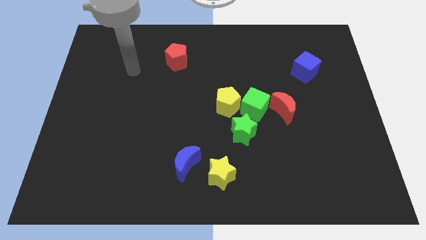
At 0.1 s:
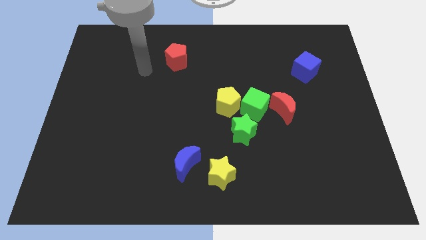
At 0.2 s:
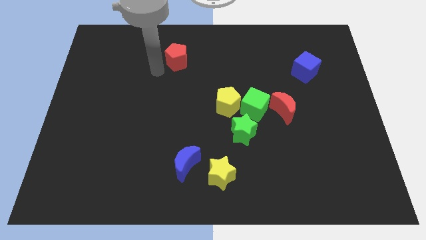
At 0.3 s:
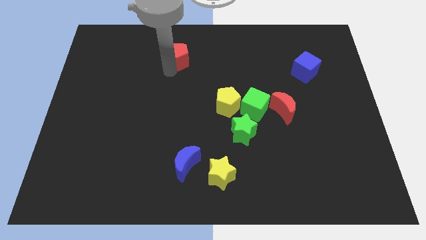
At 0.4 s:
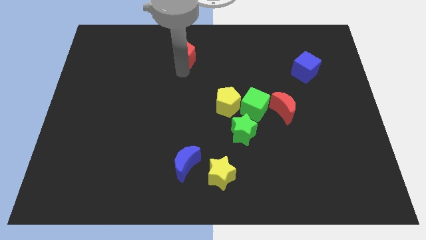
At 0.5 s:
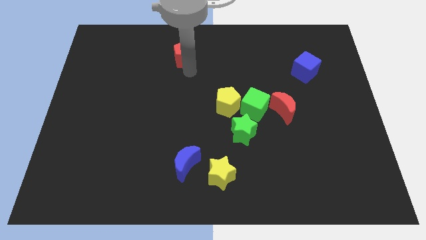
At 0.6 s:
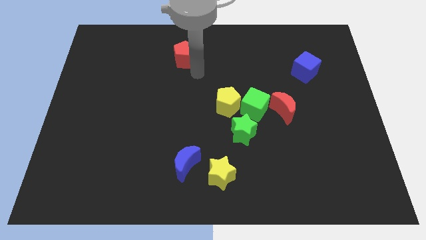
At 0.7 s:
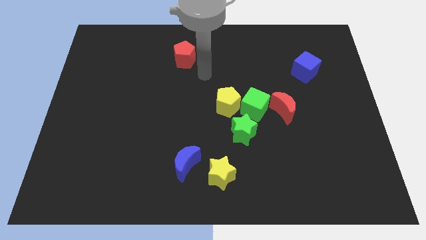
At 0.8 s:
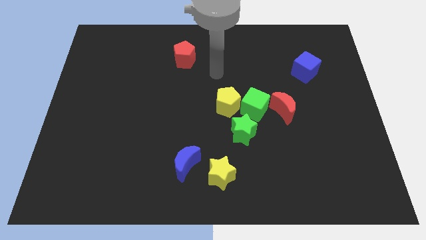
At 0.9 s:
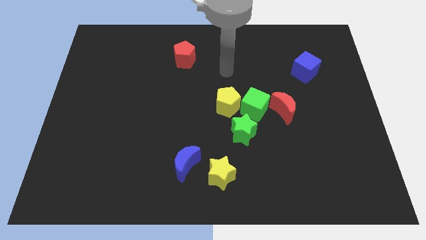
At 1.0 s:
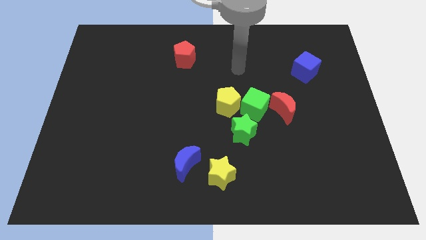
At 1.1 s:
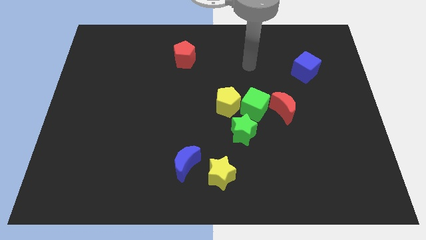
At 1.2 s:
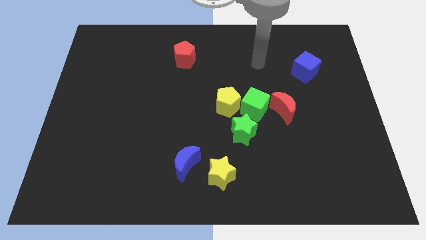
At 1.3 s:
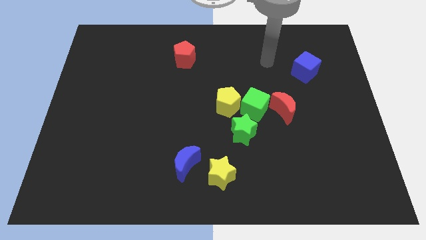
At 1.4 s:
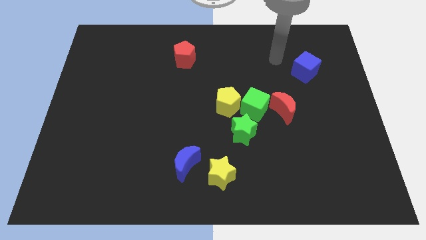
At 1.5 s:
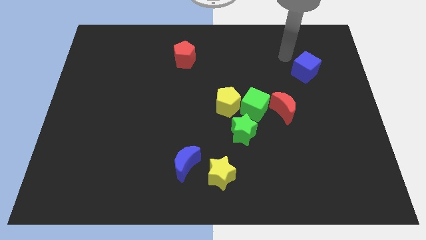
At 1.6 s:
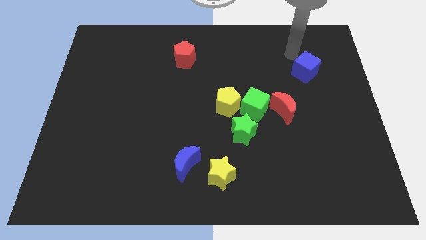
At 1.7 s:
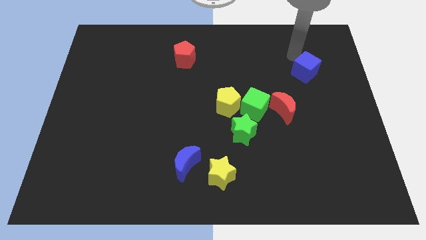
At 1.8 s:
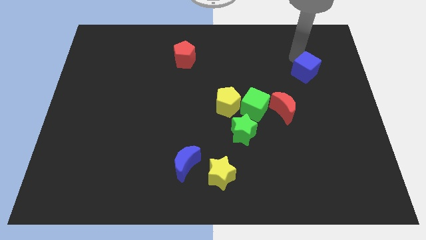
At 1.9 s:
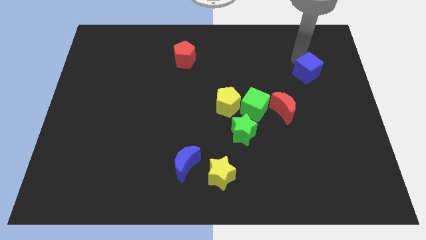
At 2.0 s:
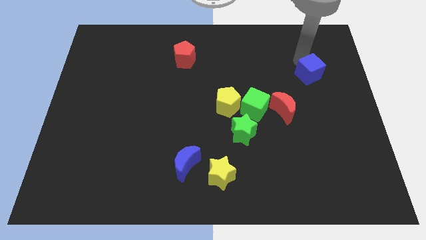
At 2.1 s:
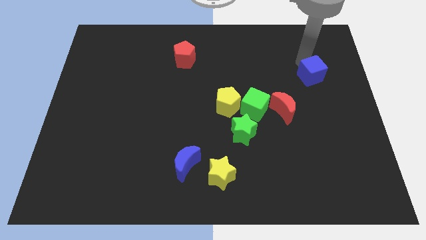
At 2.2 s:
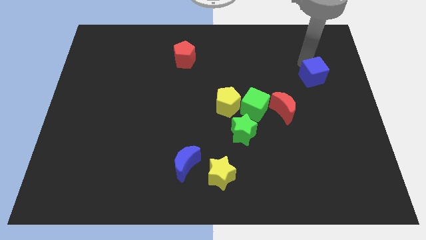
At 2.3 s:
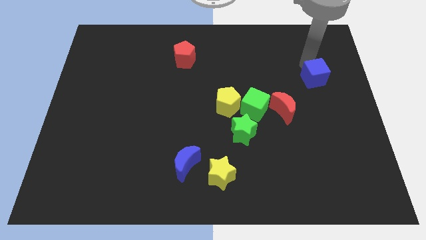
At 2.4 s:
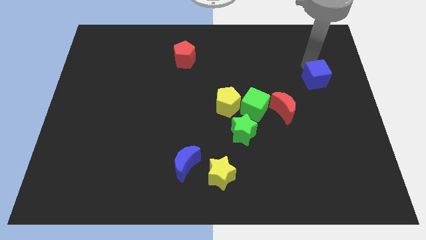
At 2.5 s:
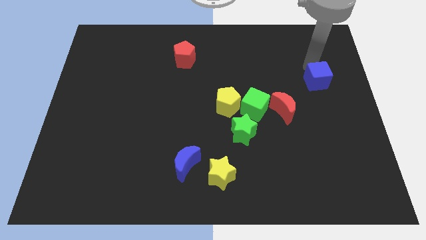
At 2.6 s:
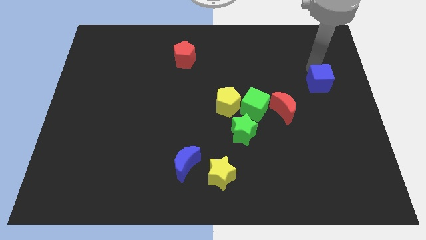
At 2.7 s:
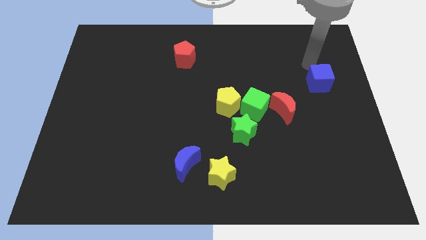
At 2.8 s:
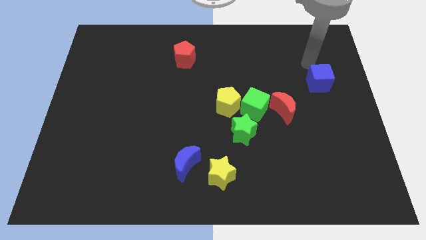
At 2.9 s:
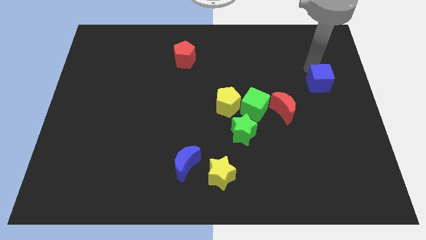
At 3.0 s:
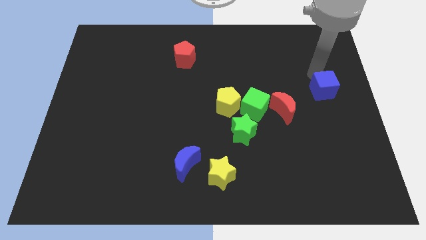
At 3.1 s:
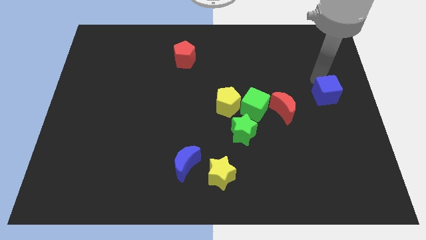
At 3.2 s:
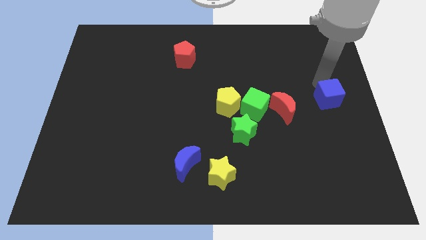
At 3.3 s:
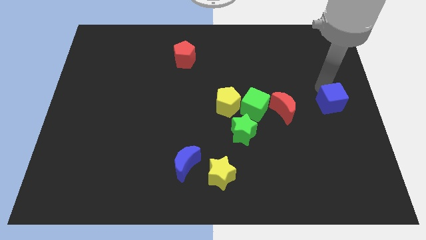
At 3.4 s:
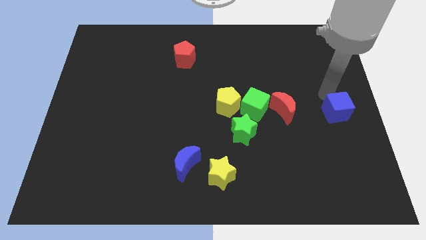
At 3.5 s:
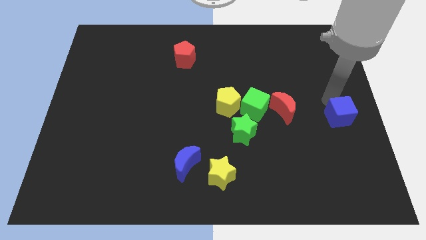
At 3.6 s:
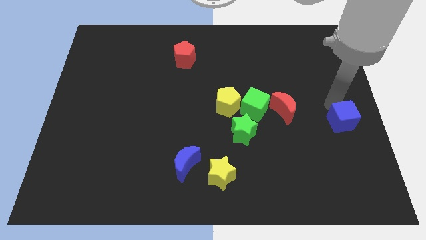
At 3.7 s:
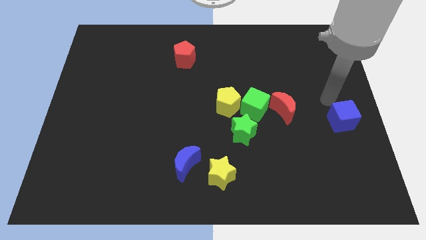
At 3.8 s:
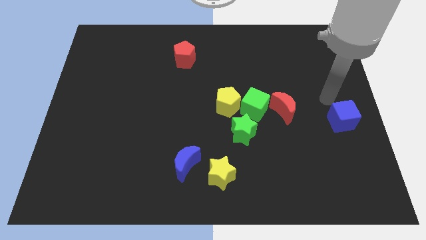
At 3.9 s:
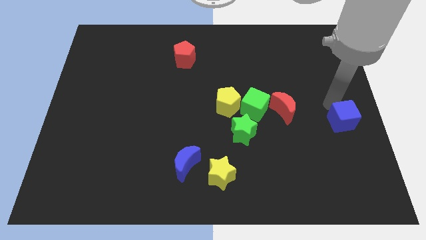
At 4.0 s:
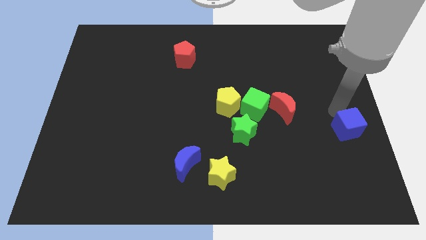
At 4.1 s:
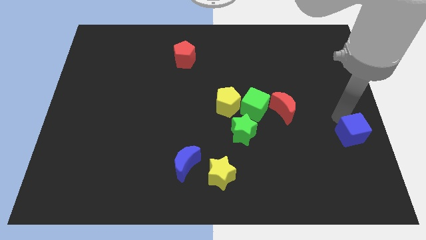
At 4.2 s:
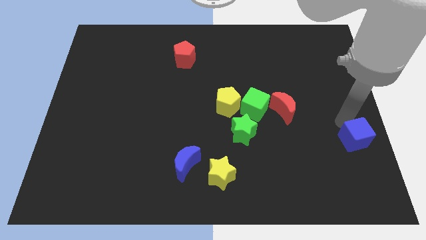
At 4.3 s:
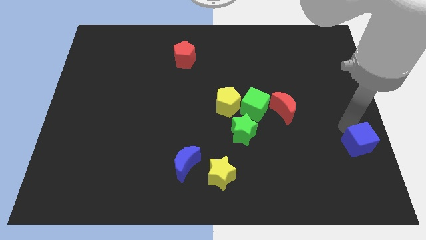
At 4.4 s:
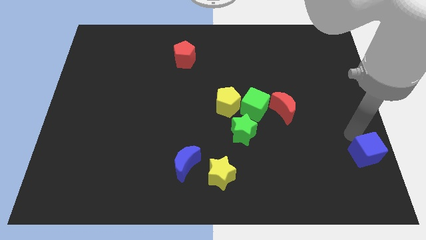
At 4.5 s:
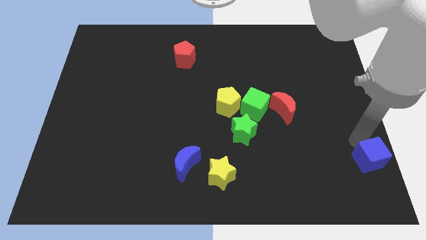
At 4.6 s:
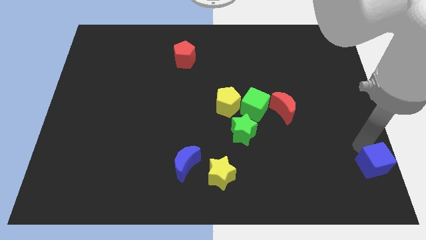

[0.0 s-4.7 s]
put the blue cube to the lower right corner

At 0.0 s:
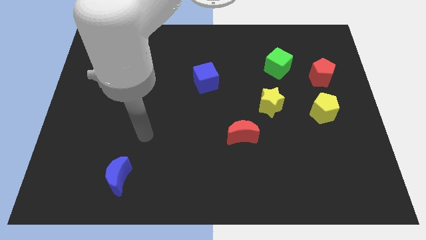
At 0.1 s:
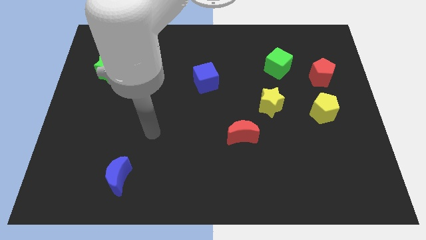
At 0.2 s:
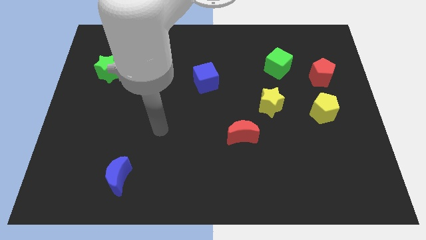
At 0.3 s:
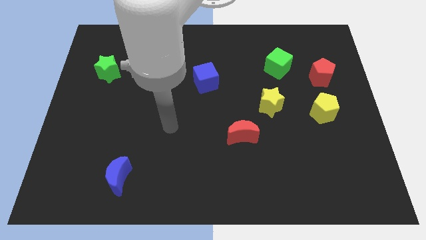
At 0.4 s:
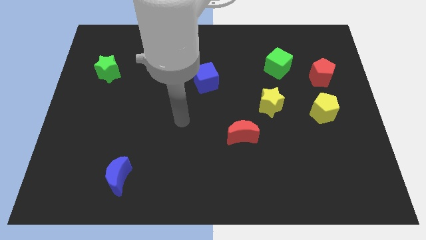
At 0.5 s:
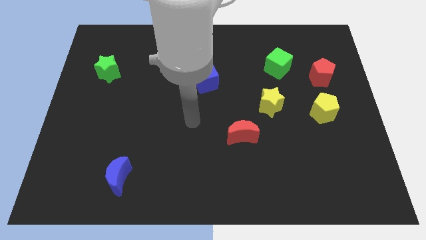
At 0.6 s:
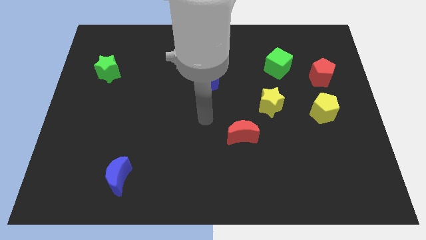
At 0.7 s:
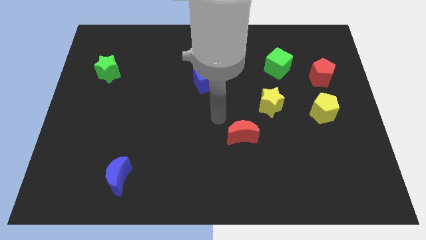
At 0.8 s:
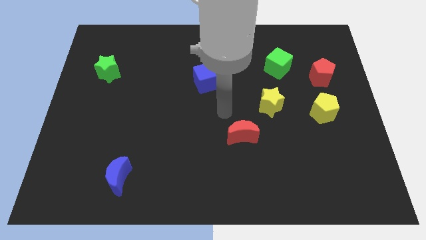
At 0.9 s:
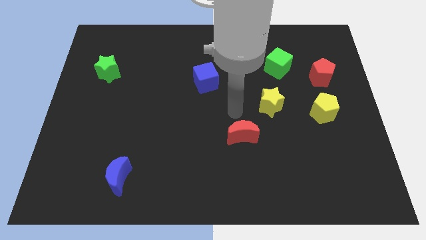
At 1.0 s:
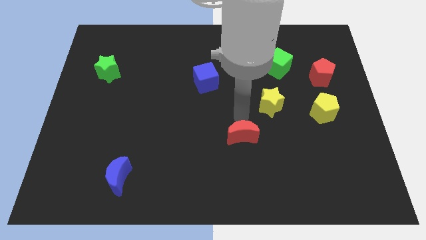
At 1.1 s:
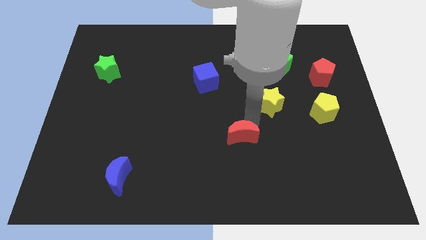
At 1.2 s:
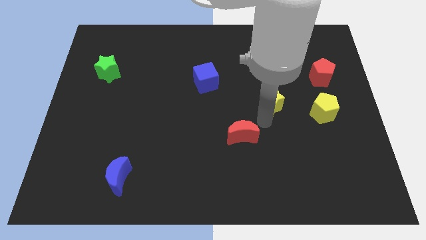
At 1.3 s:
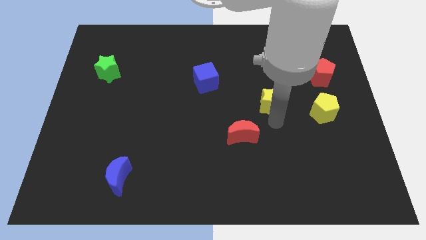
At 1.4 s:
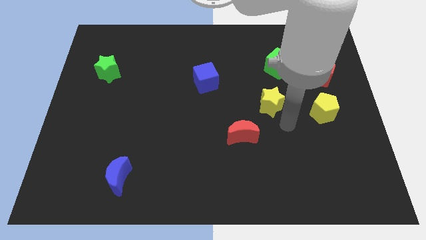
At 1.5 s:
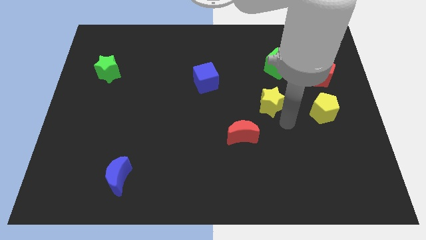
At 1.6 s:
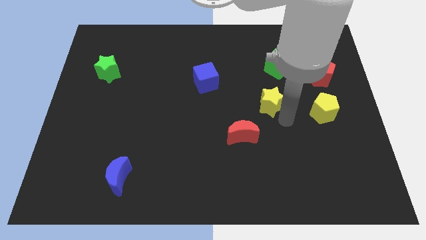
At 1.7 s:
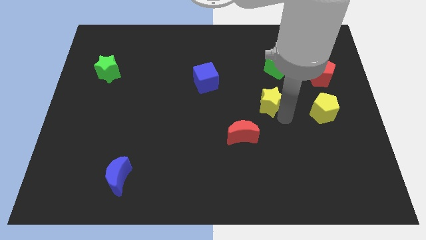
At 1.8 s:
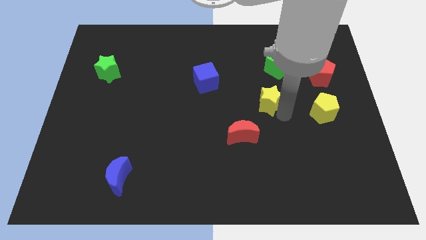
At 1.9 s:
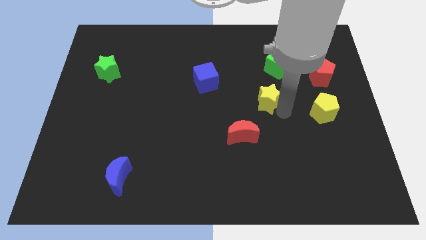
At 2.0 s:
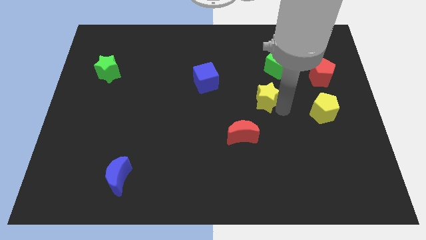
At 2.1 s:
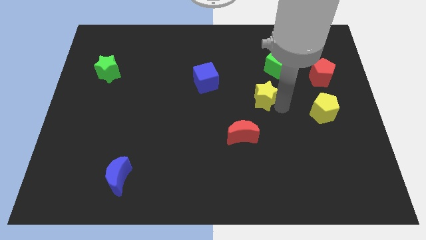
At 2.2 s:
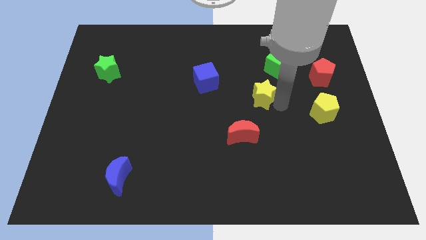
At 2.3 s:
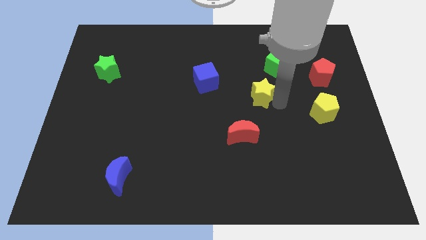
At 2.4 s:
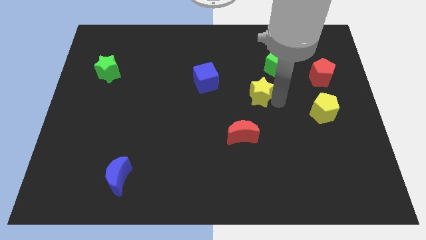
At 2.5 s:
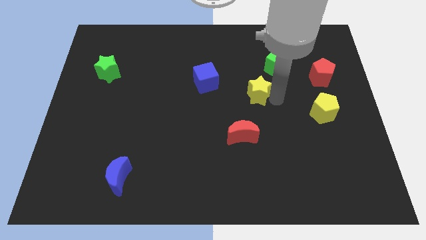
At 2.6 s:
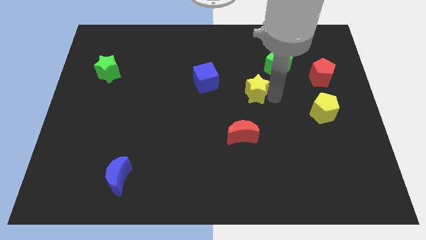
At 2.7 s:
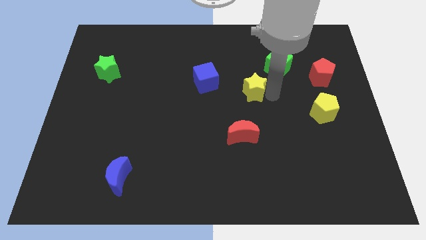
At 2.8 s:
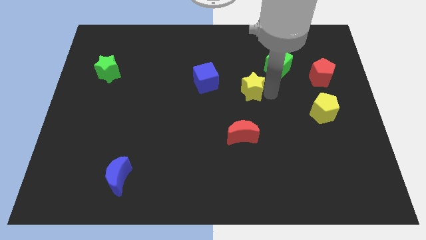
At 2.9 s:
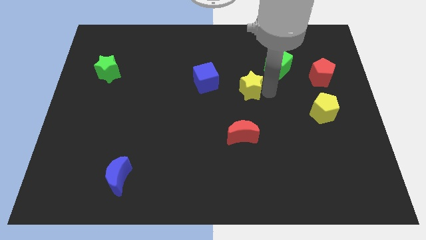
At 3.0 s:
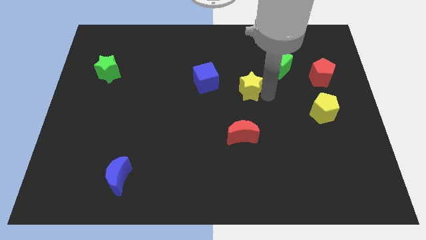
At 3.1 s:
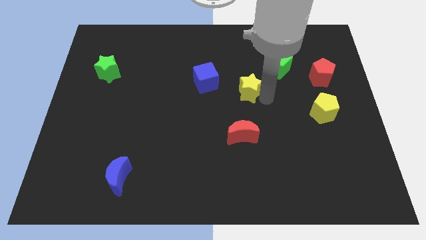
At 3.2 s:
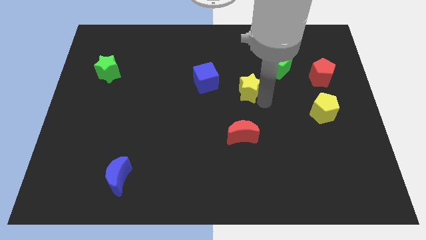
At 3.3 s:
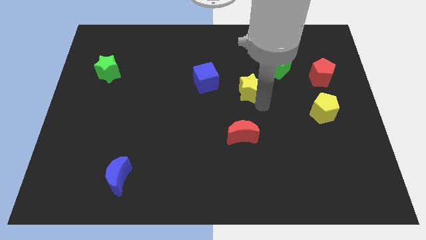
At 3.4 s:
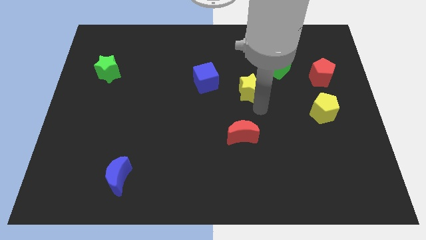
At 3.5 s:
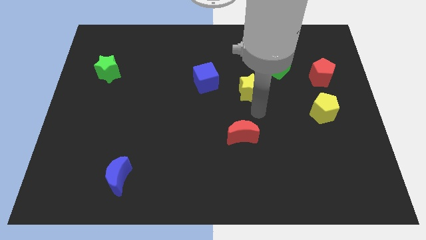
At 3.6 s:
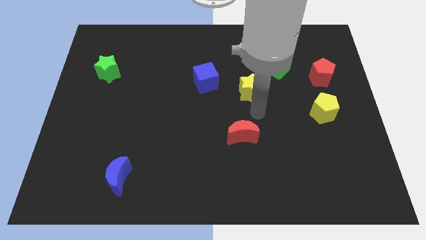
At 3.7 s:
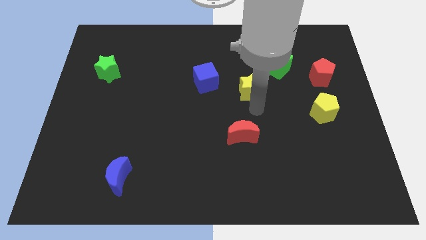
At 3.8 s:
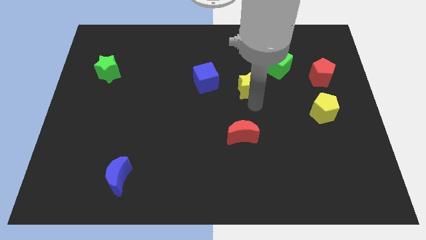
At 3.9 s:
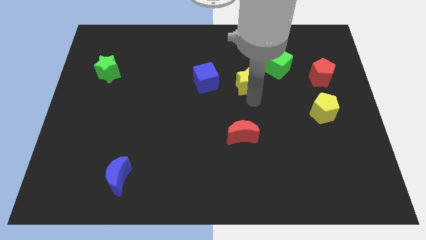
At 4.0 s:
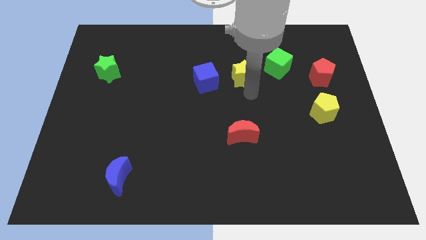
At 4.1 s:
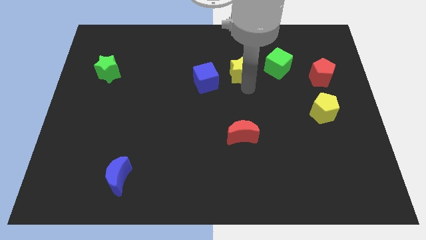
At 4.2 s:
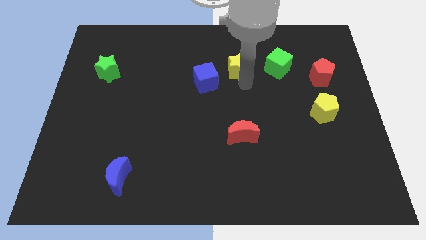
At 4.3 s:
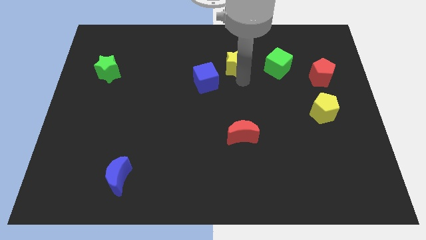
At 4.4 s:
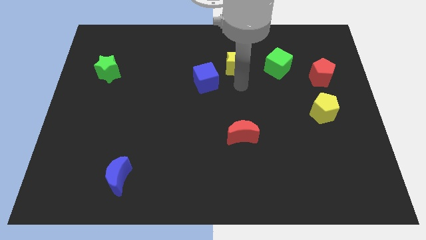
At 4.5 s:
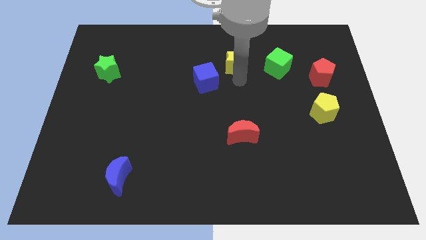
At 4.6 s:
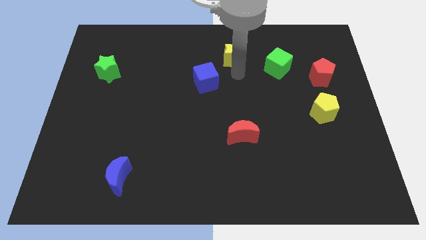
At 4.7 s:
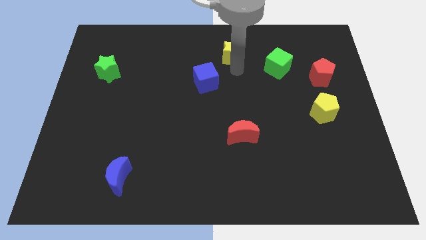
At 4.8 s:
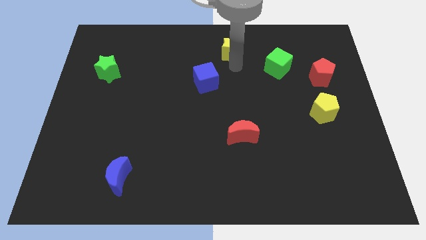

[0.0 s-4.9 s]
push the yellow star to the top
